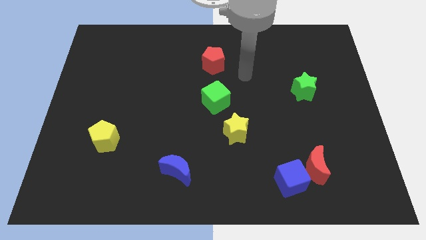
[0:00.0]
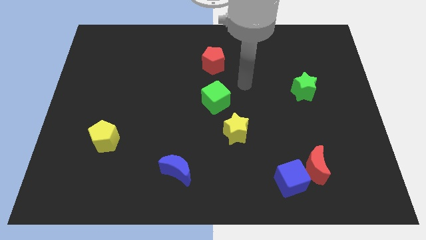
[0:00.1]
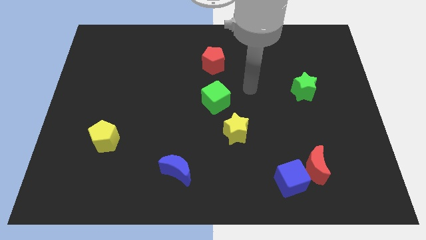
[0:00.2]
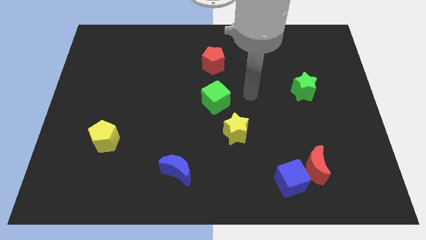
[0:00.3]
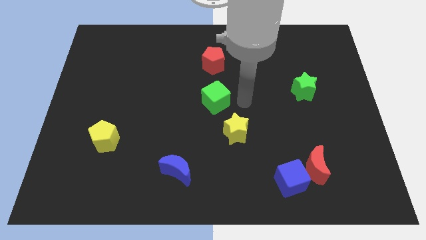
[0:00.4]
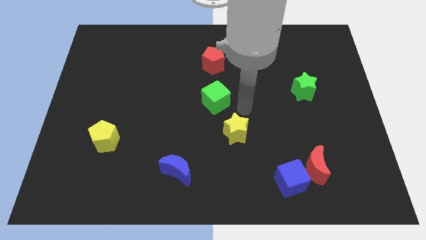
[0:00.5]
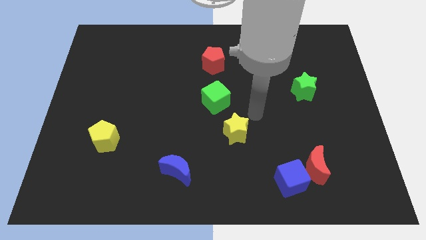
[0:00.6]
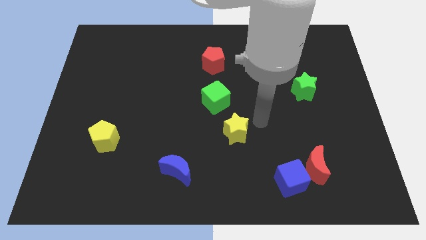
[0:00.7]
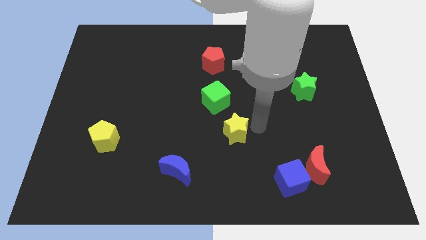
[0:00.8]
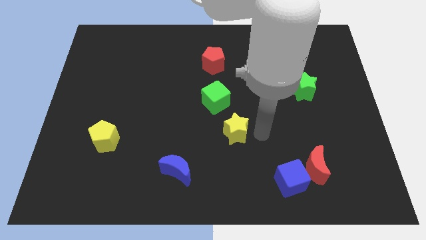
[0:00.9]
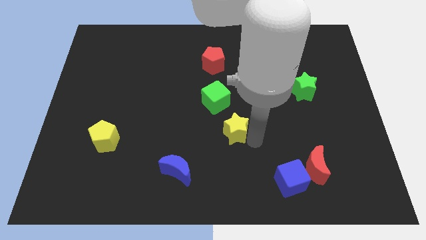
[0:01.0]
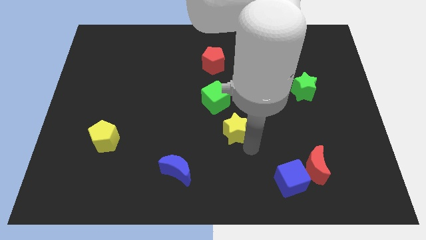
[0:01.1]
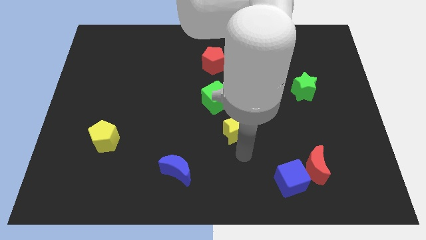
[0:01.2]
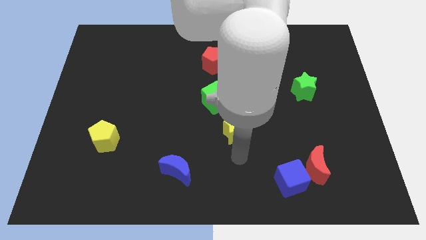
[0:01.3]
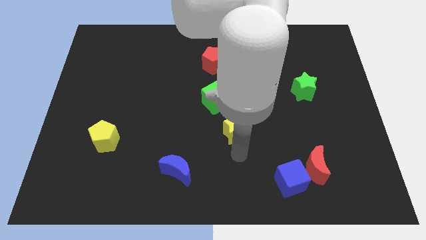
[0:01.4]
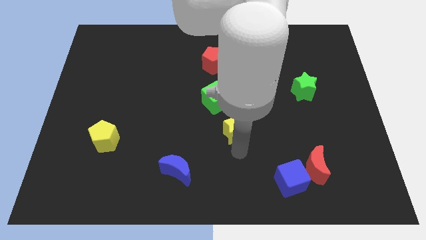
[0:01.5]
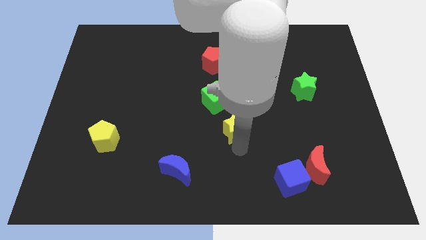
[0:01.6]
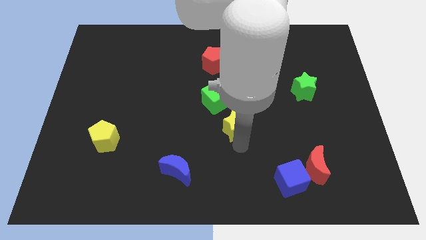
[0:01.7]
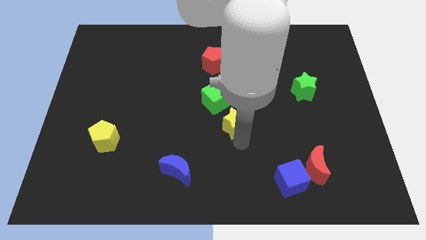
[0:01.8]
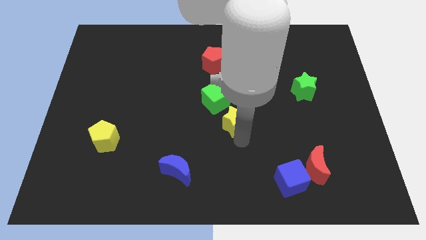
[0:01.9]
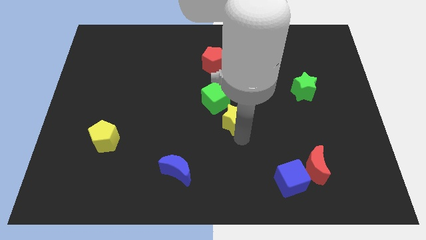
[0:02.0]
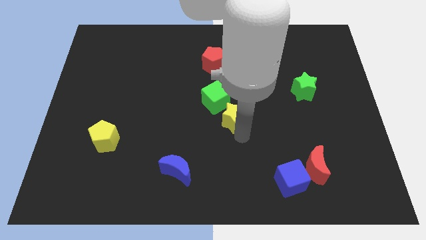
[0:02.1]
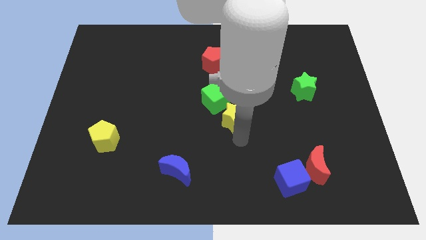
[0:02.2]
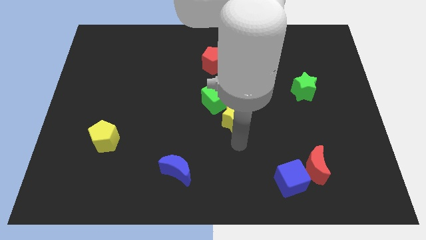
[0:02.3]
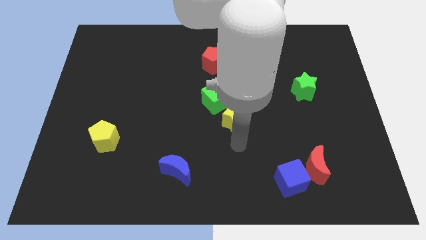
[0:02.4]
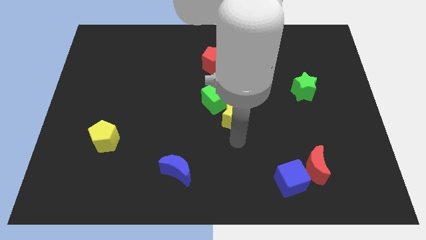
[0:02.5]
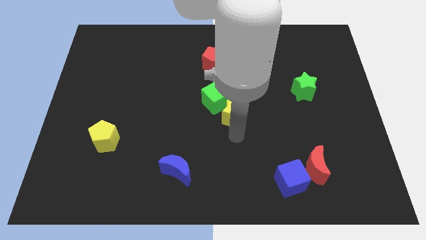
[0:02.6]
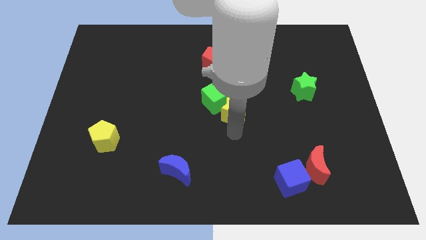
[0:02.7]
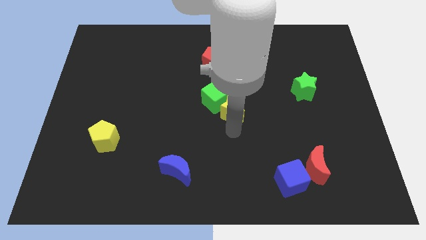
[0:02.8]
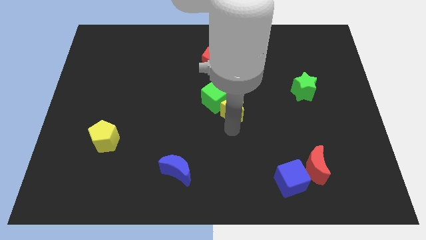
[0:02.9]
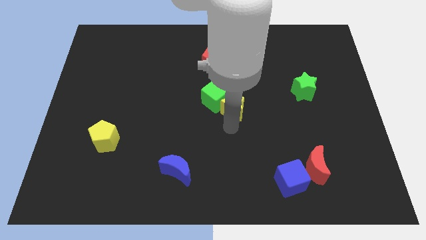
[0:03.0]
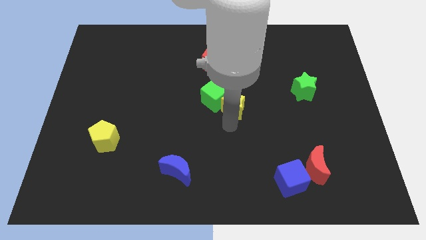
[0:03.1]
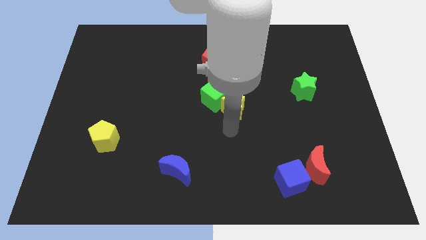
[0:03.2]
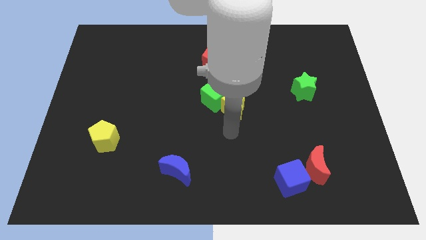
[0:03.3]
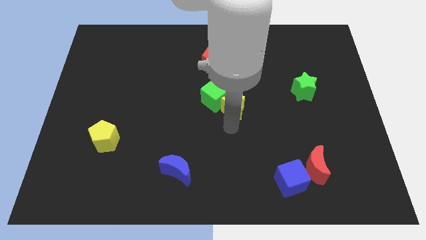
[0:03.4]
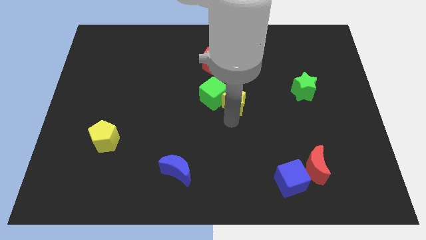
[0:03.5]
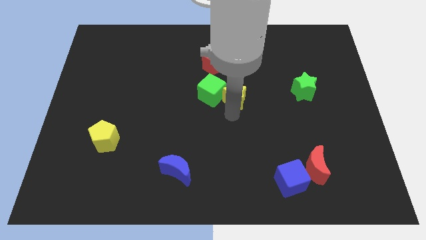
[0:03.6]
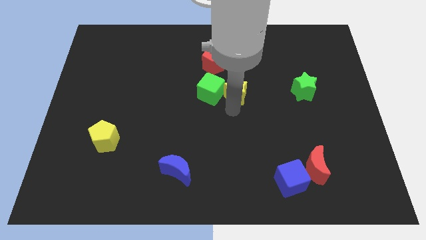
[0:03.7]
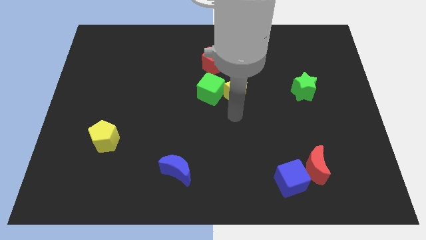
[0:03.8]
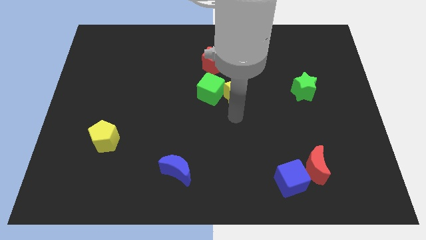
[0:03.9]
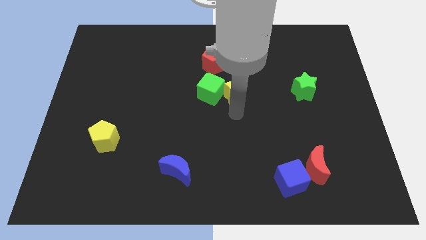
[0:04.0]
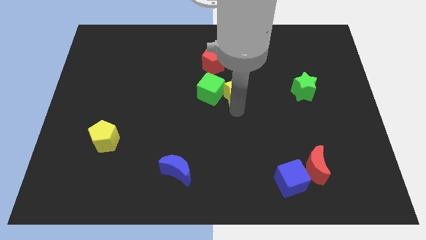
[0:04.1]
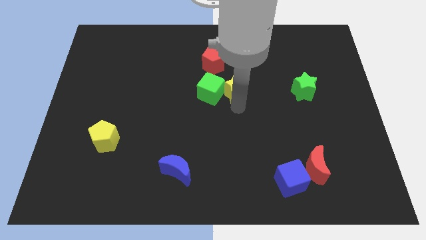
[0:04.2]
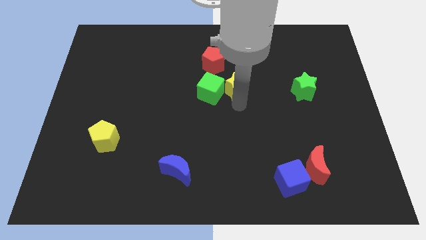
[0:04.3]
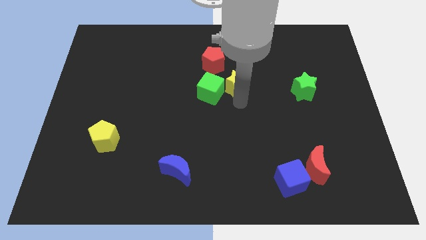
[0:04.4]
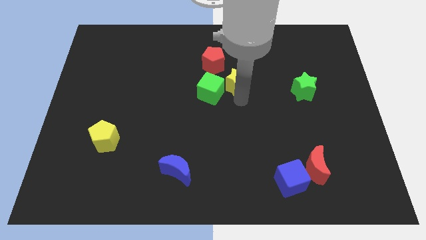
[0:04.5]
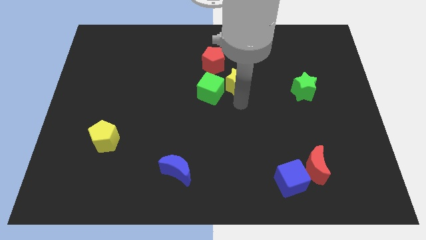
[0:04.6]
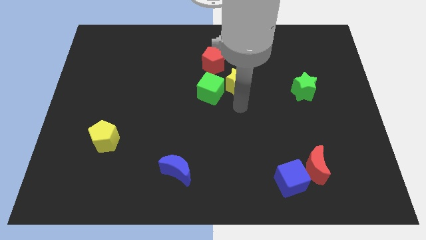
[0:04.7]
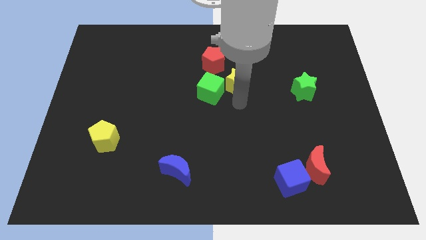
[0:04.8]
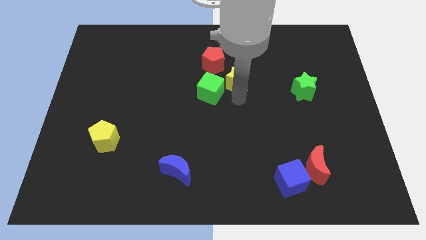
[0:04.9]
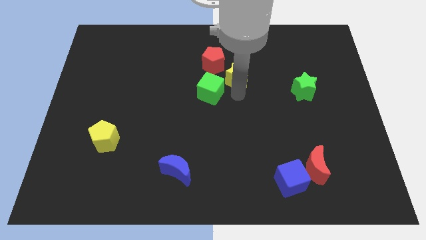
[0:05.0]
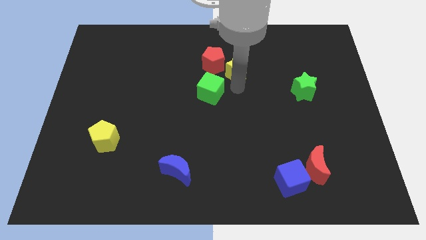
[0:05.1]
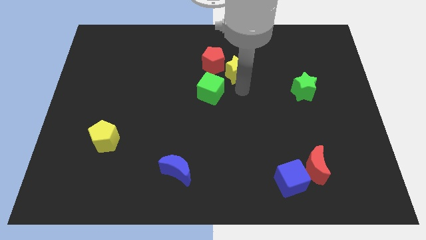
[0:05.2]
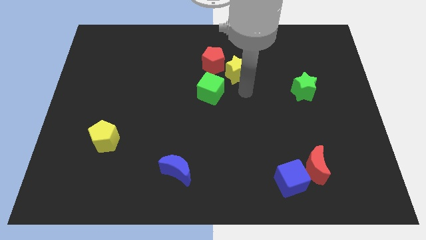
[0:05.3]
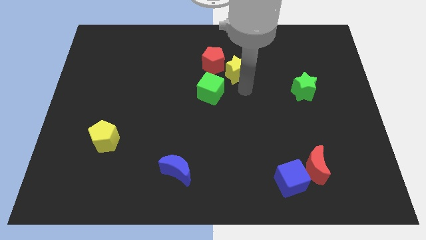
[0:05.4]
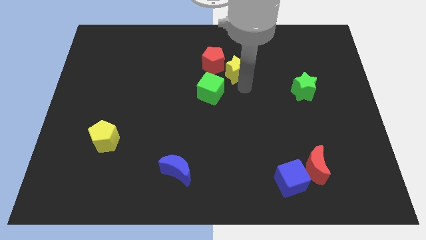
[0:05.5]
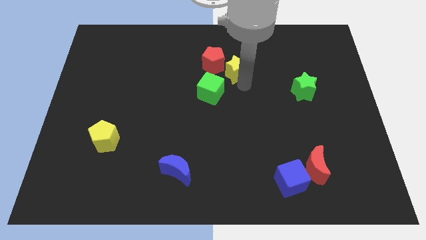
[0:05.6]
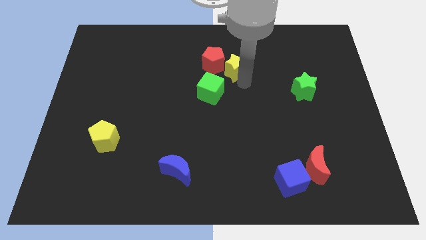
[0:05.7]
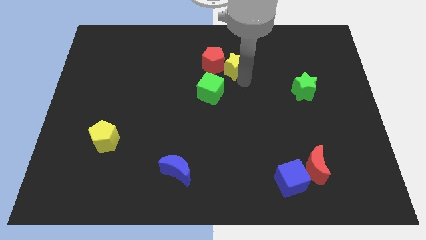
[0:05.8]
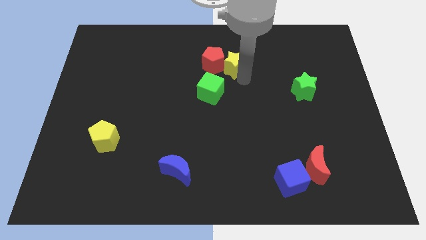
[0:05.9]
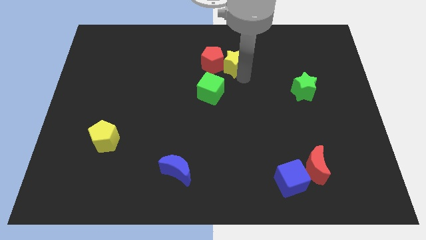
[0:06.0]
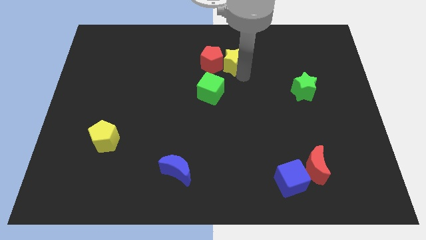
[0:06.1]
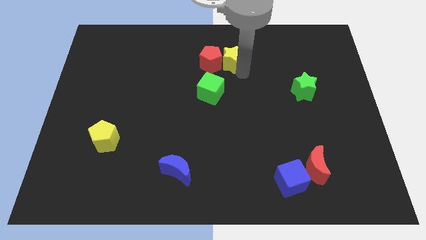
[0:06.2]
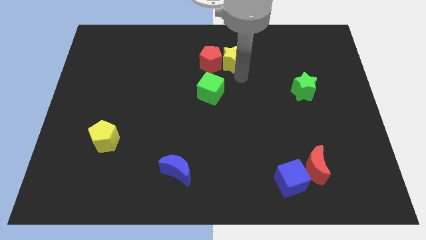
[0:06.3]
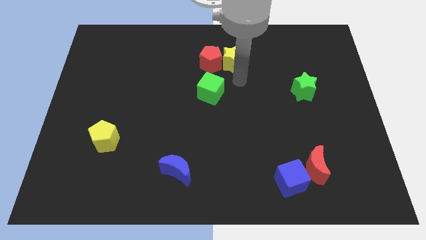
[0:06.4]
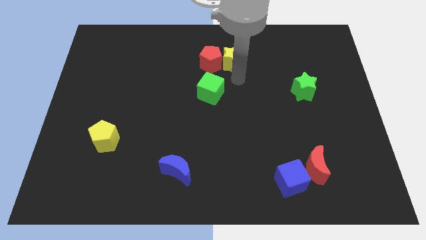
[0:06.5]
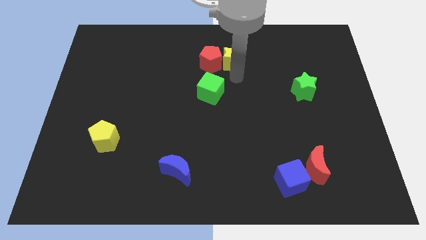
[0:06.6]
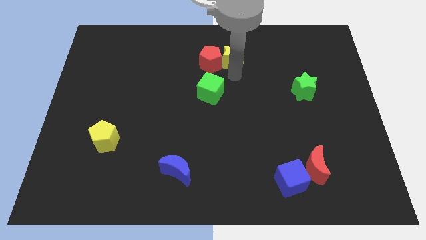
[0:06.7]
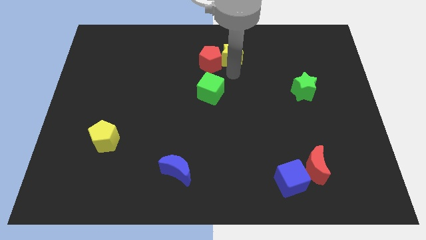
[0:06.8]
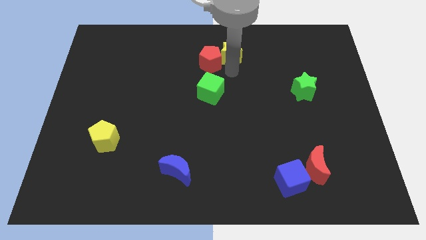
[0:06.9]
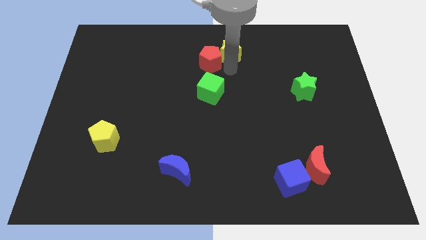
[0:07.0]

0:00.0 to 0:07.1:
put the yellow star to the top side
